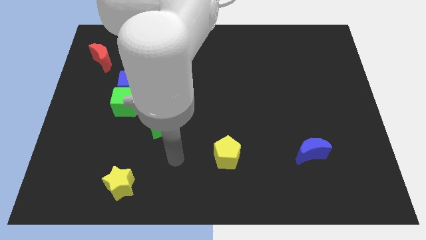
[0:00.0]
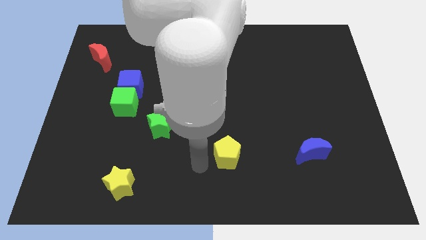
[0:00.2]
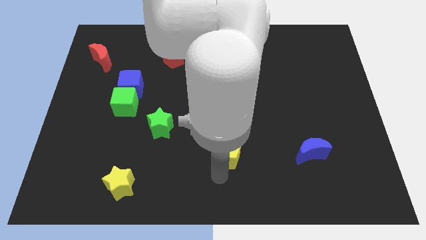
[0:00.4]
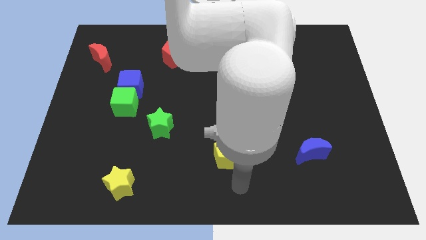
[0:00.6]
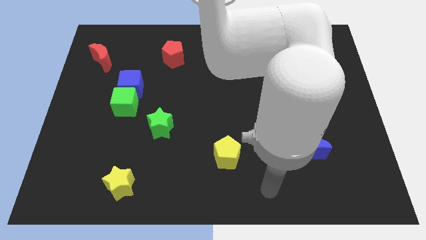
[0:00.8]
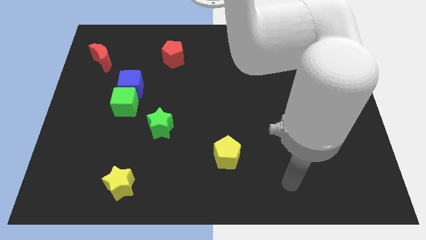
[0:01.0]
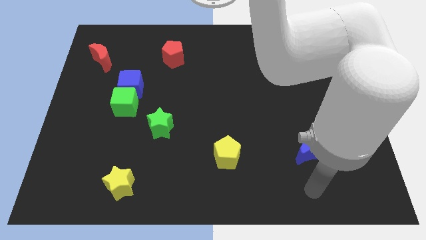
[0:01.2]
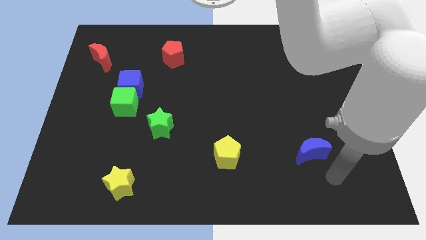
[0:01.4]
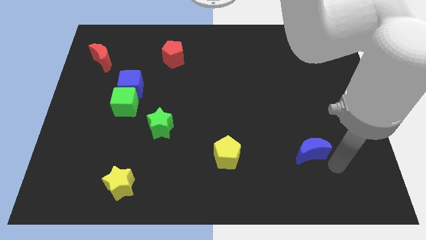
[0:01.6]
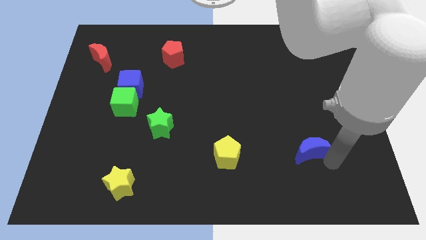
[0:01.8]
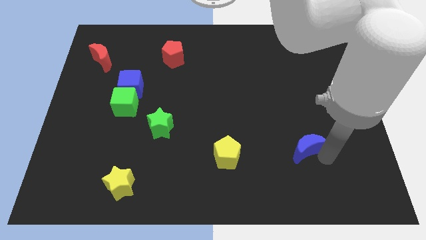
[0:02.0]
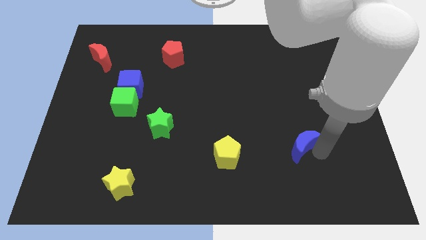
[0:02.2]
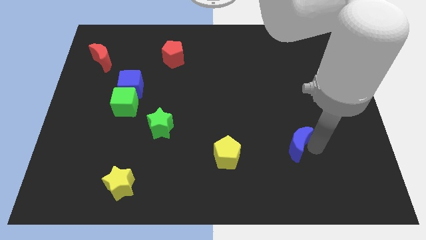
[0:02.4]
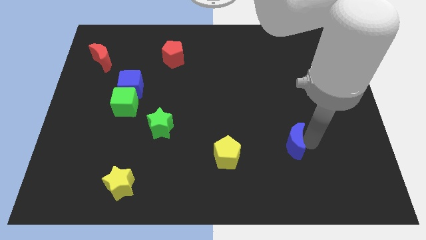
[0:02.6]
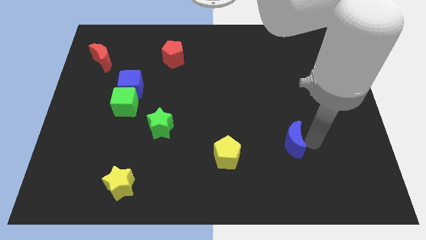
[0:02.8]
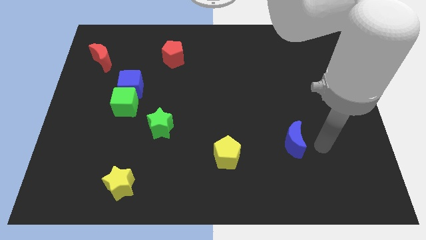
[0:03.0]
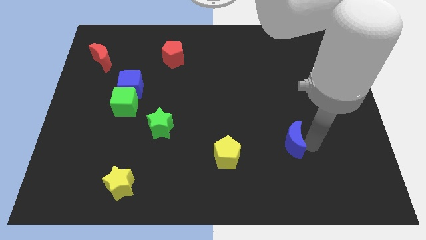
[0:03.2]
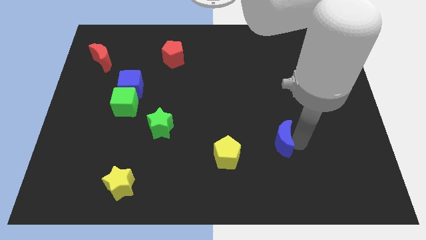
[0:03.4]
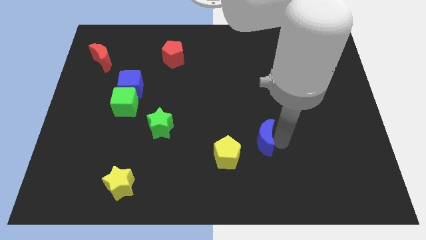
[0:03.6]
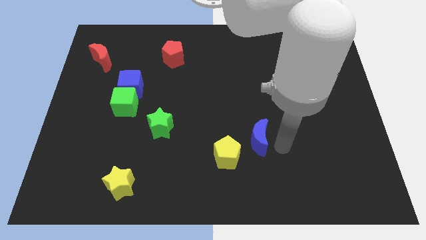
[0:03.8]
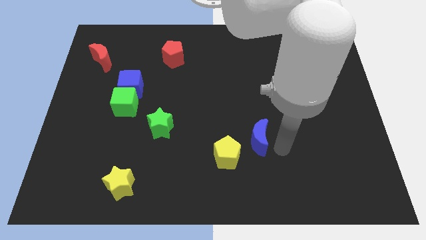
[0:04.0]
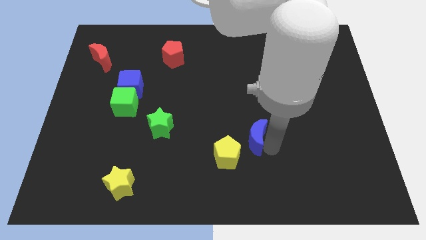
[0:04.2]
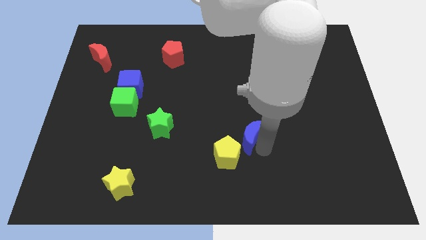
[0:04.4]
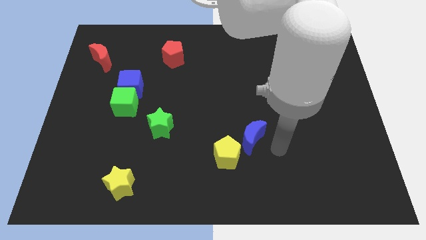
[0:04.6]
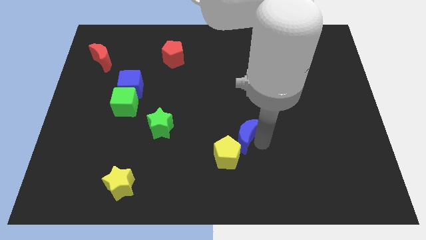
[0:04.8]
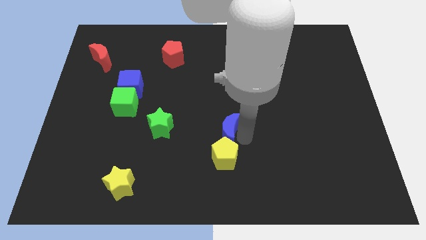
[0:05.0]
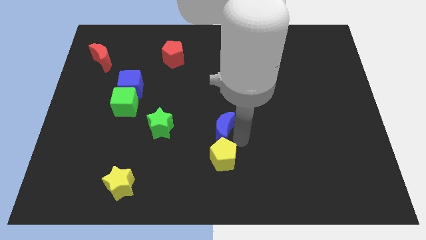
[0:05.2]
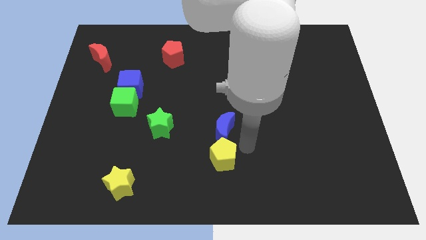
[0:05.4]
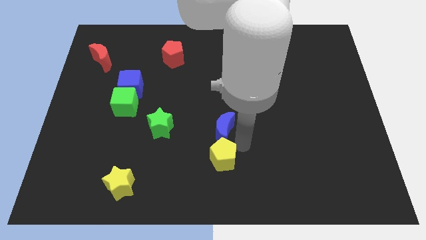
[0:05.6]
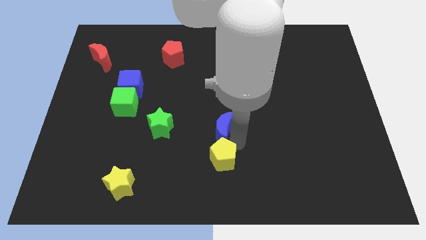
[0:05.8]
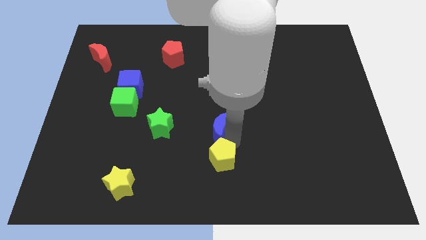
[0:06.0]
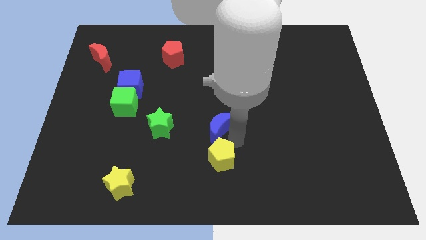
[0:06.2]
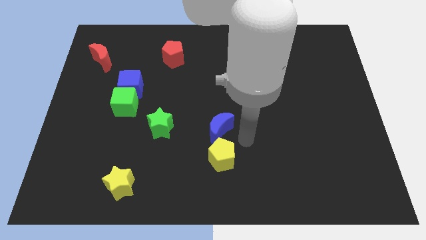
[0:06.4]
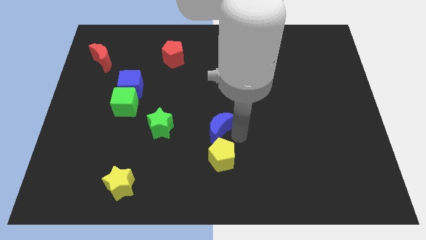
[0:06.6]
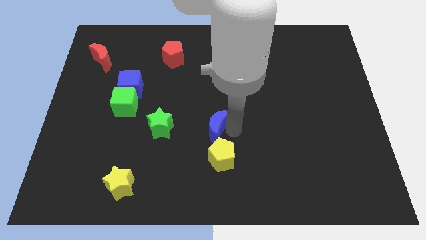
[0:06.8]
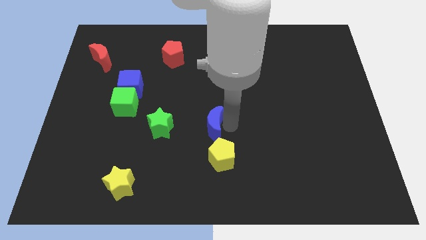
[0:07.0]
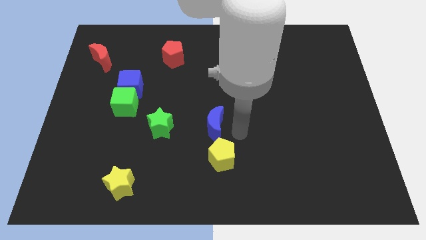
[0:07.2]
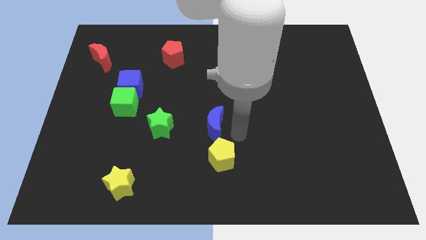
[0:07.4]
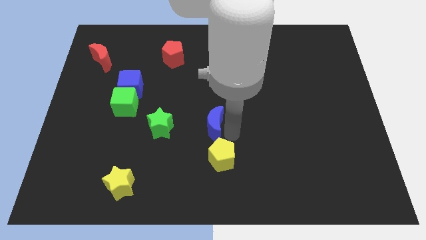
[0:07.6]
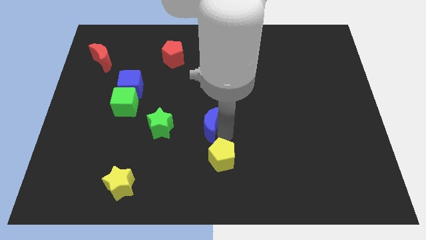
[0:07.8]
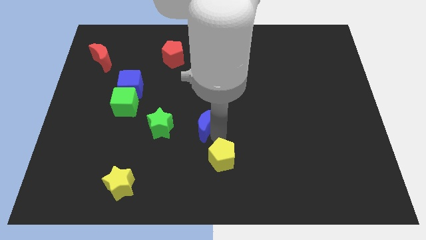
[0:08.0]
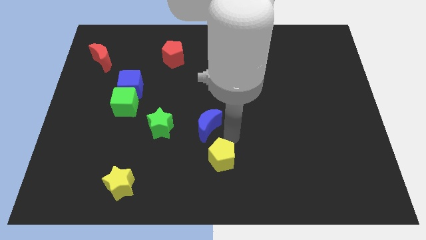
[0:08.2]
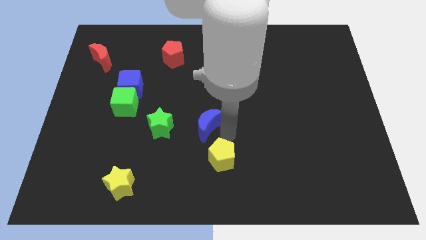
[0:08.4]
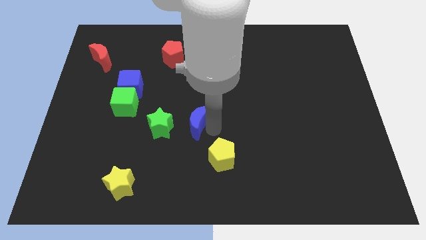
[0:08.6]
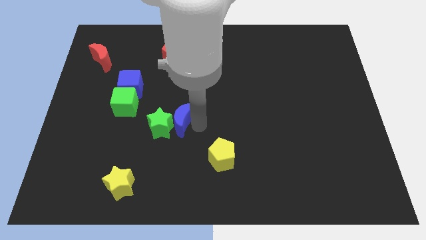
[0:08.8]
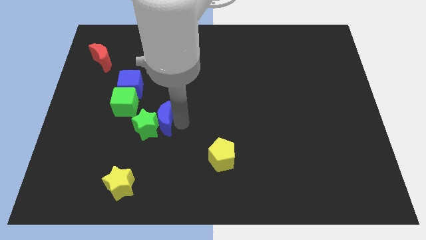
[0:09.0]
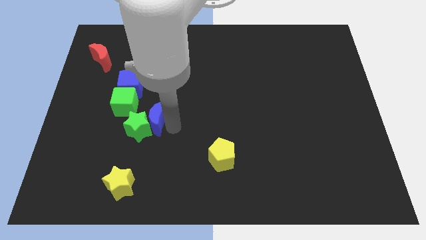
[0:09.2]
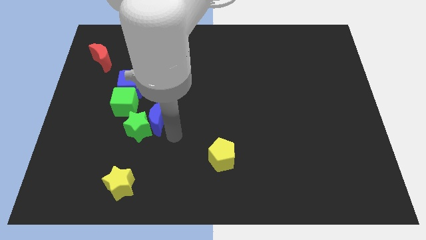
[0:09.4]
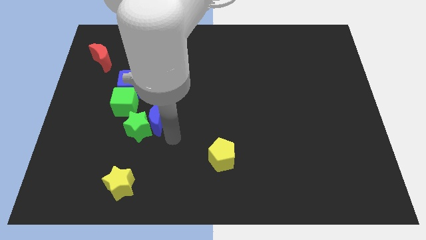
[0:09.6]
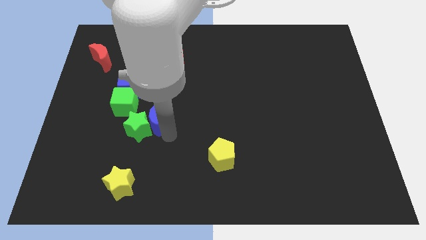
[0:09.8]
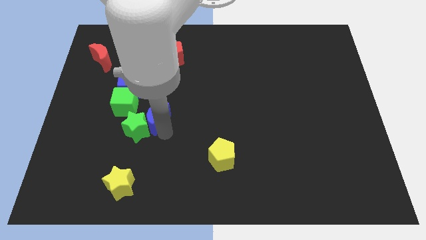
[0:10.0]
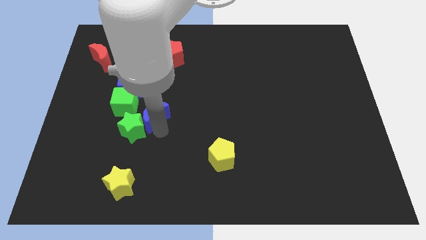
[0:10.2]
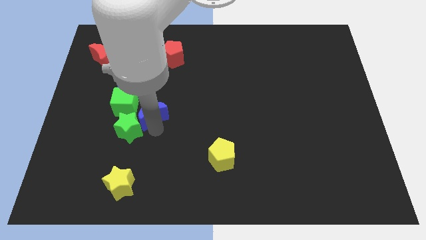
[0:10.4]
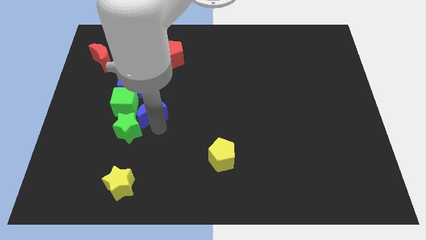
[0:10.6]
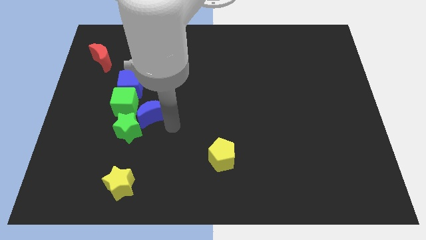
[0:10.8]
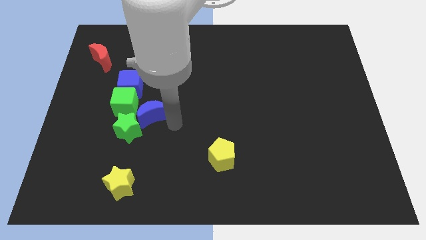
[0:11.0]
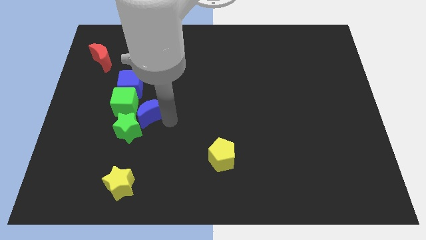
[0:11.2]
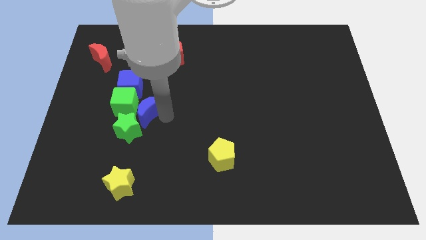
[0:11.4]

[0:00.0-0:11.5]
move the blue moon close to the green cube

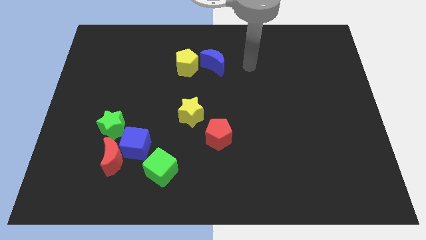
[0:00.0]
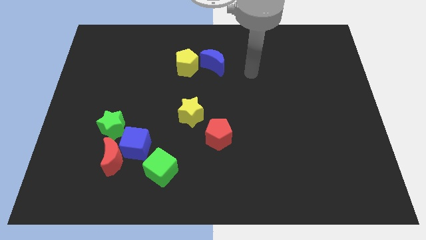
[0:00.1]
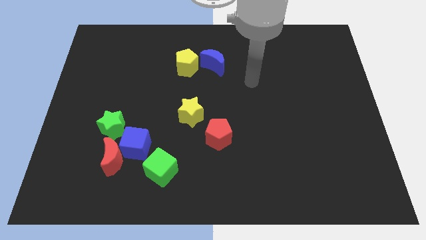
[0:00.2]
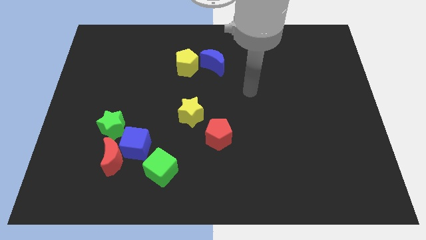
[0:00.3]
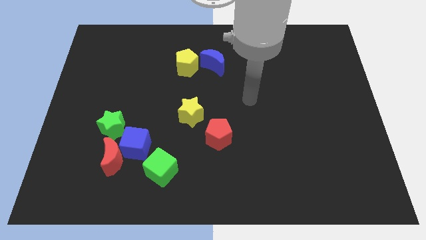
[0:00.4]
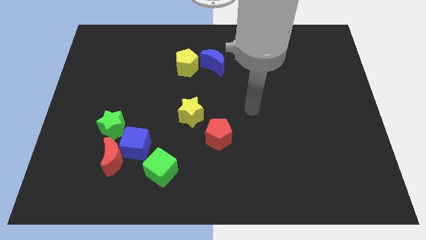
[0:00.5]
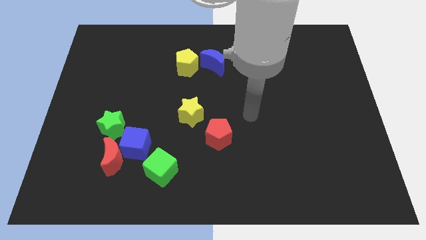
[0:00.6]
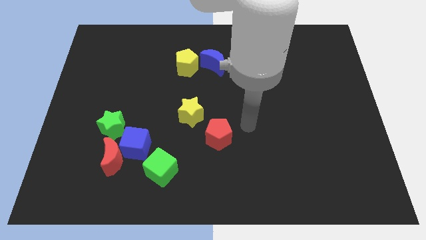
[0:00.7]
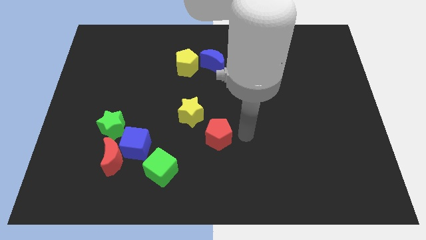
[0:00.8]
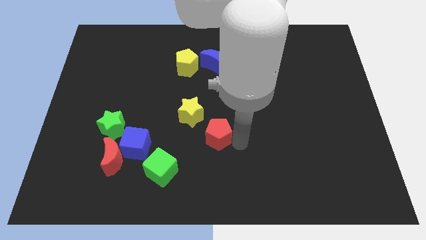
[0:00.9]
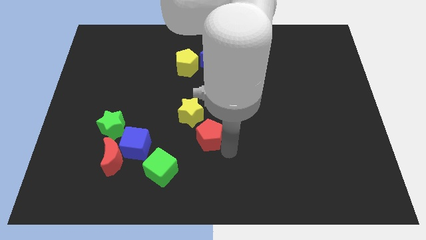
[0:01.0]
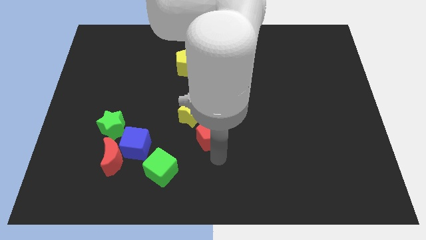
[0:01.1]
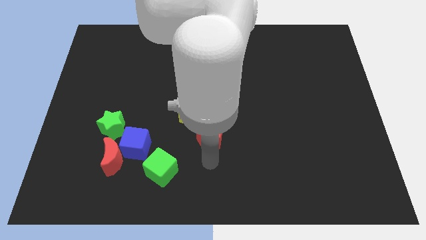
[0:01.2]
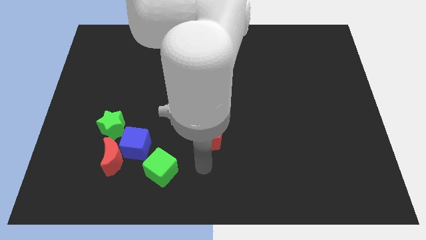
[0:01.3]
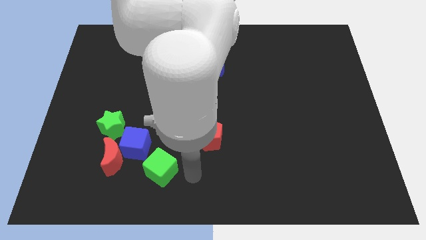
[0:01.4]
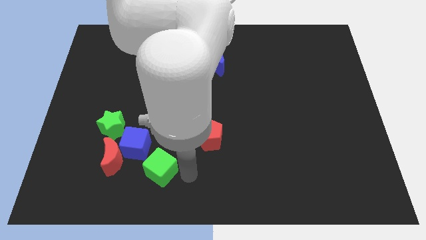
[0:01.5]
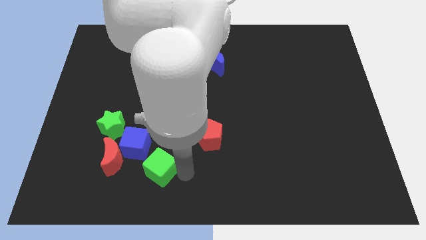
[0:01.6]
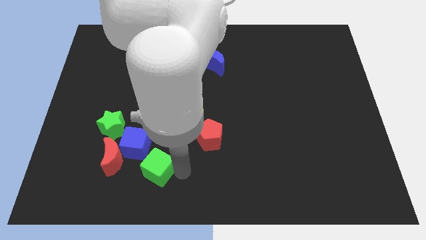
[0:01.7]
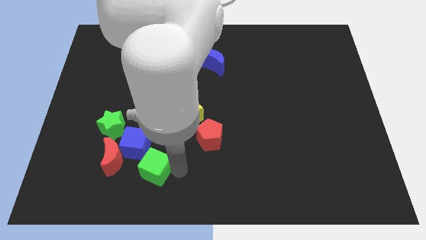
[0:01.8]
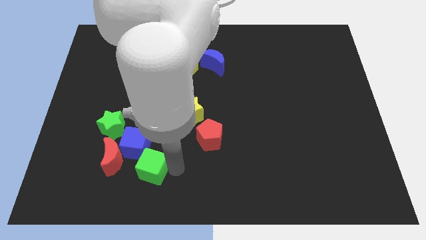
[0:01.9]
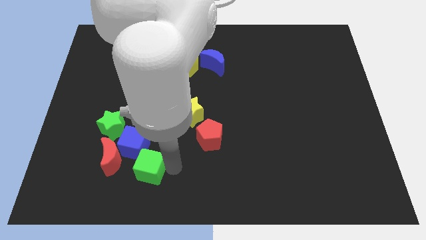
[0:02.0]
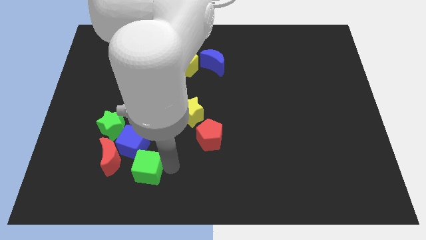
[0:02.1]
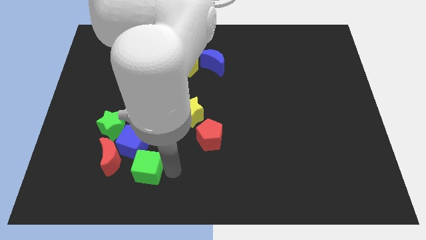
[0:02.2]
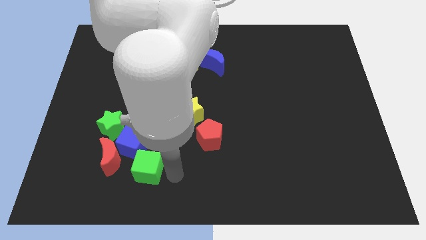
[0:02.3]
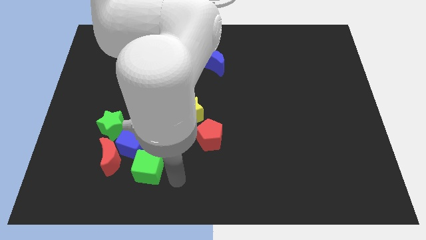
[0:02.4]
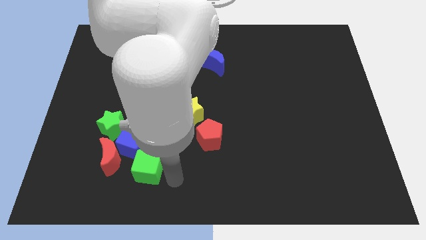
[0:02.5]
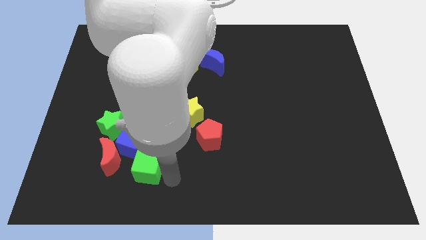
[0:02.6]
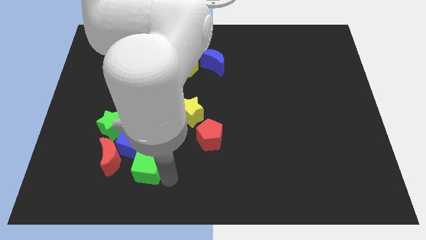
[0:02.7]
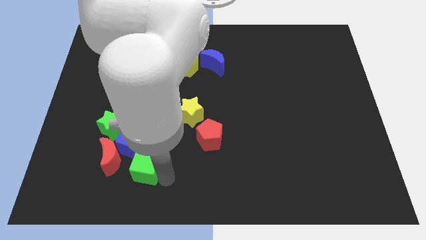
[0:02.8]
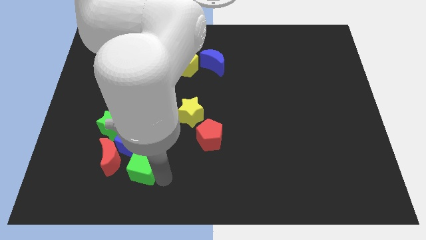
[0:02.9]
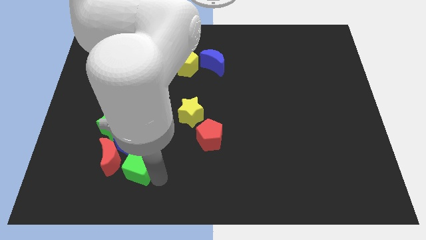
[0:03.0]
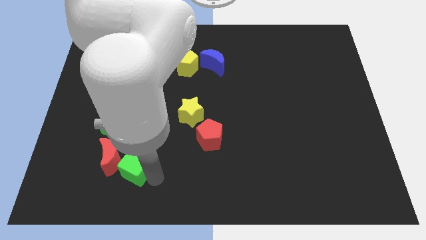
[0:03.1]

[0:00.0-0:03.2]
push the green cube close to the red moon
